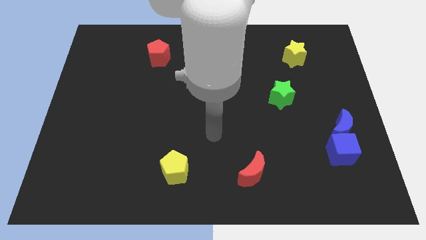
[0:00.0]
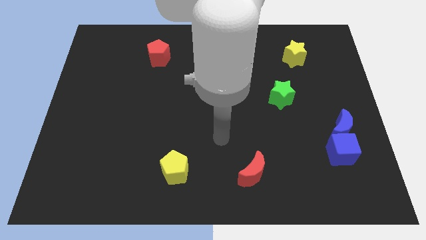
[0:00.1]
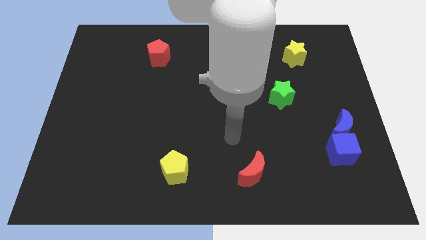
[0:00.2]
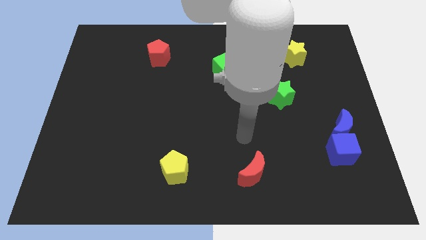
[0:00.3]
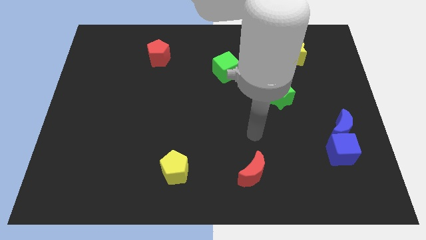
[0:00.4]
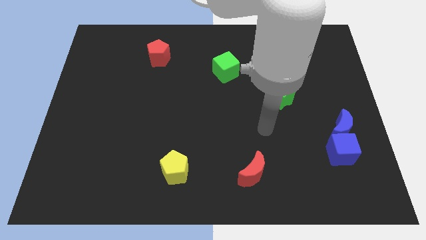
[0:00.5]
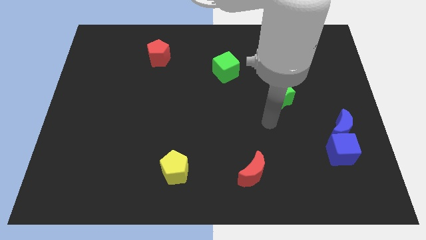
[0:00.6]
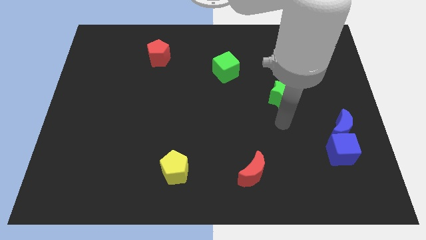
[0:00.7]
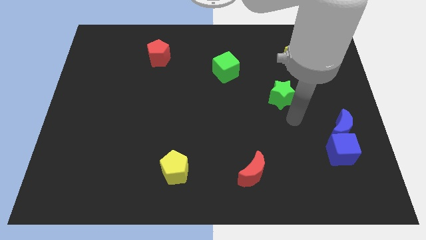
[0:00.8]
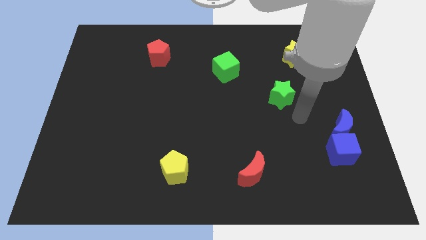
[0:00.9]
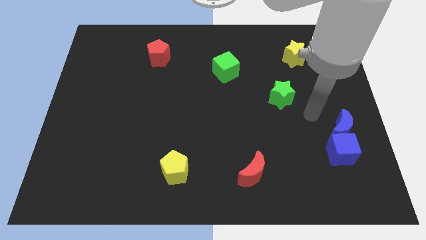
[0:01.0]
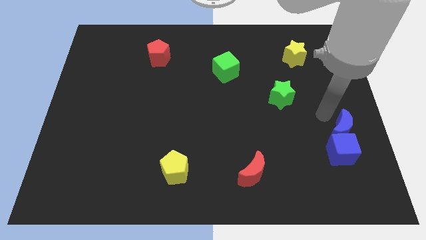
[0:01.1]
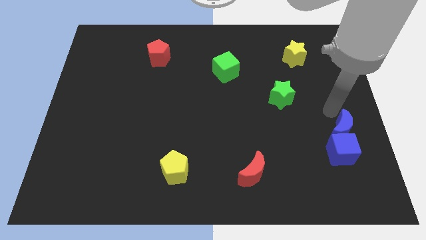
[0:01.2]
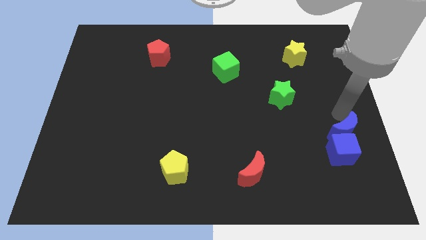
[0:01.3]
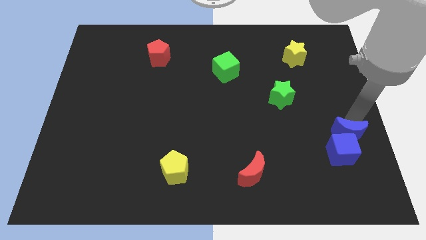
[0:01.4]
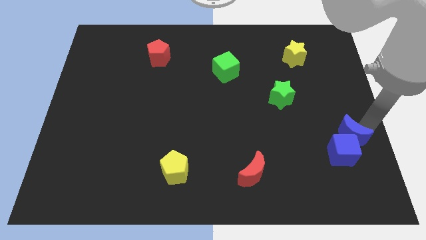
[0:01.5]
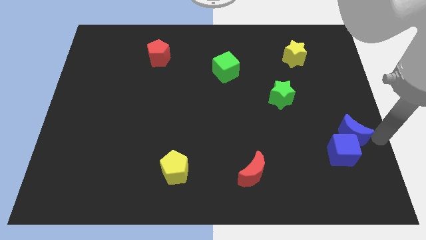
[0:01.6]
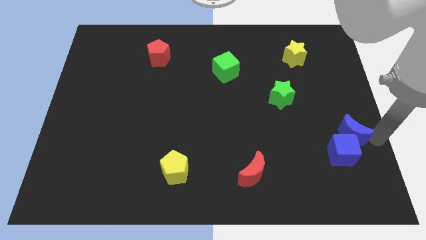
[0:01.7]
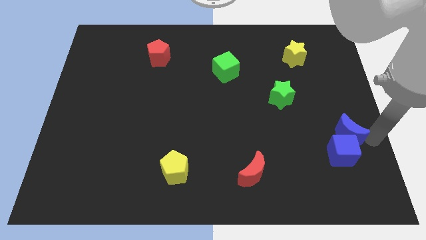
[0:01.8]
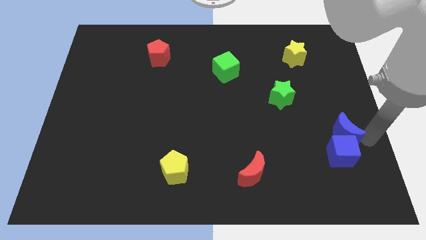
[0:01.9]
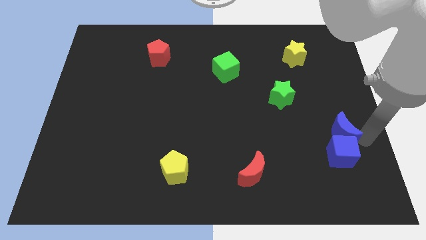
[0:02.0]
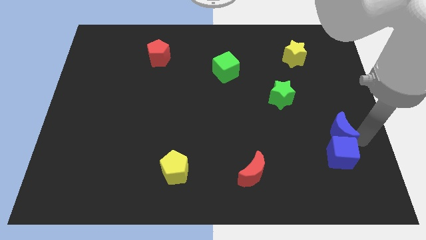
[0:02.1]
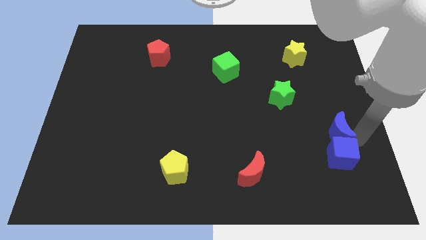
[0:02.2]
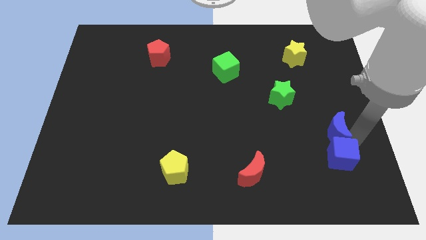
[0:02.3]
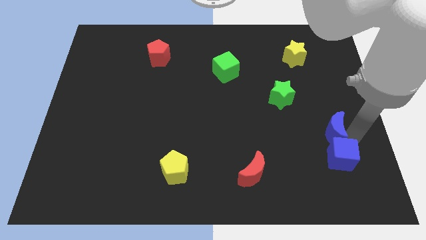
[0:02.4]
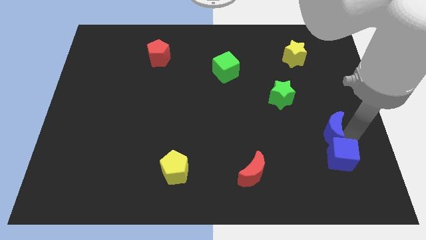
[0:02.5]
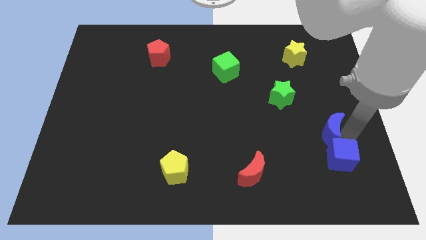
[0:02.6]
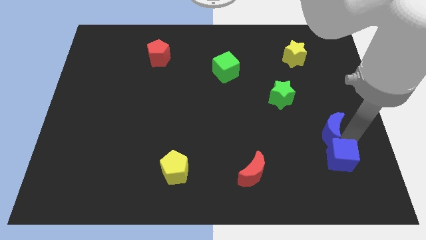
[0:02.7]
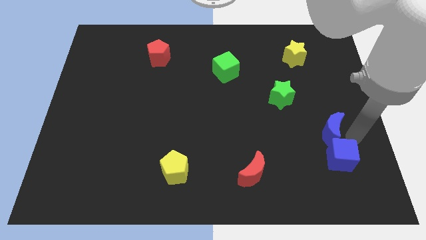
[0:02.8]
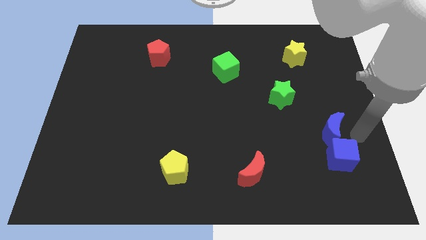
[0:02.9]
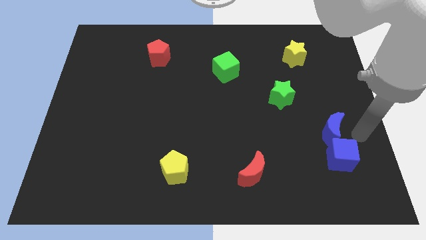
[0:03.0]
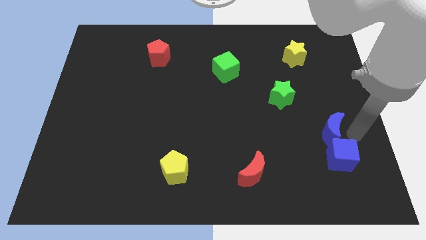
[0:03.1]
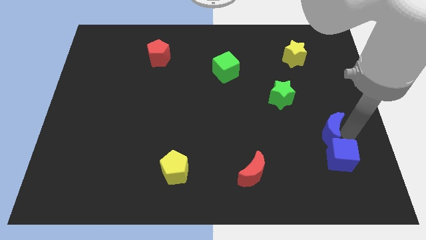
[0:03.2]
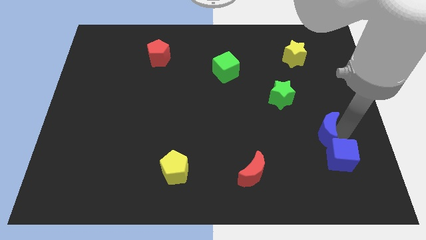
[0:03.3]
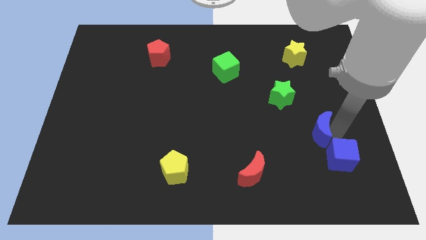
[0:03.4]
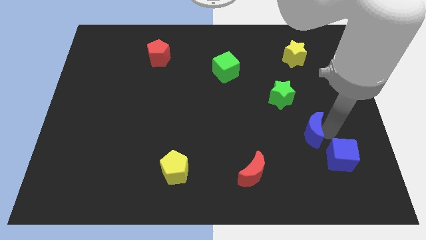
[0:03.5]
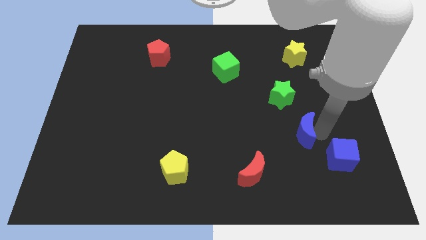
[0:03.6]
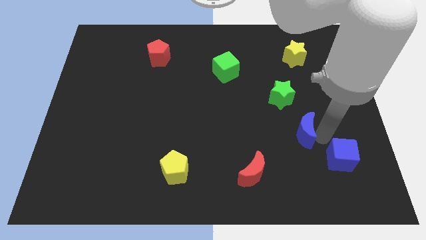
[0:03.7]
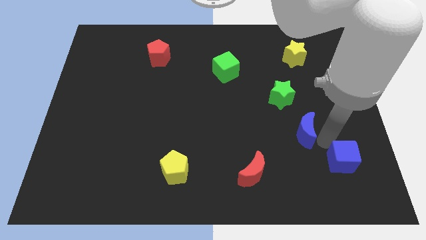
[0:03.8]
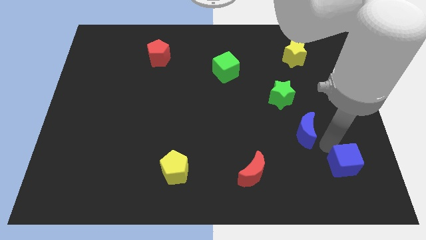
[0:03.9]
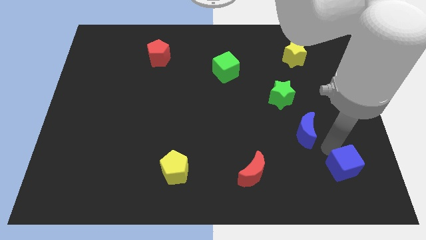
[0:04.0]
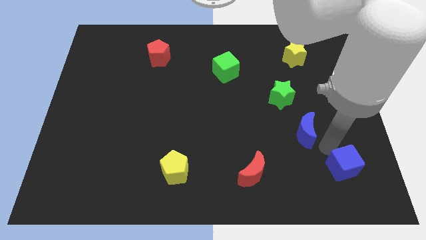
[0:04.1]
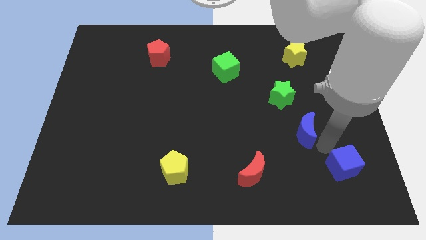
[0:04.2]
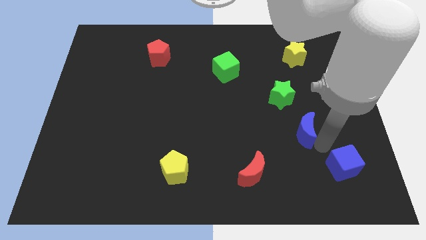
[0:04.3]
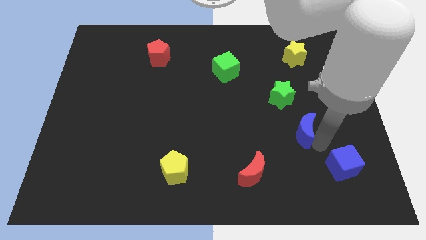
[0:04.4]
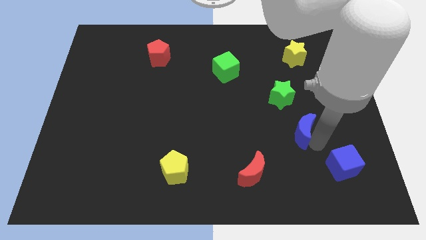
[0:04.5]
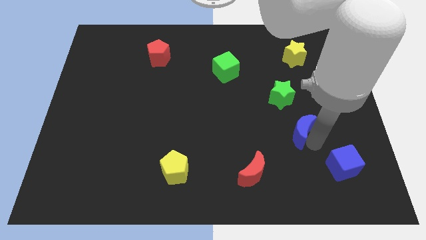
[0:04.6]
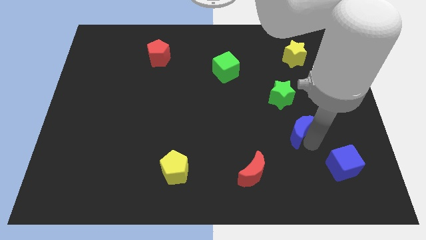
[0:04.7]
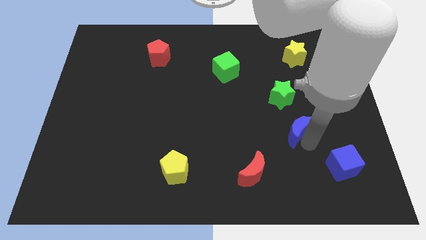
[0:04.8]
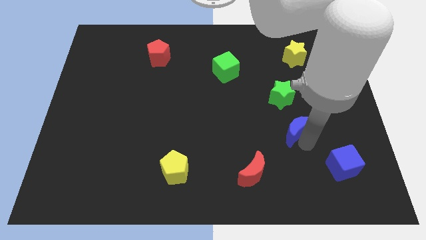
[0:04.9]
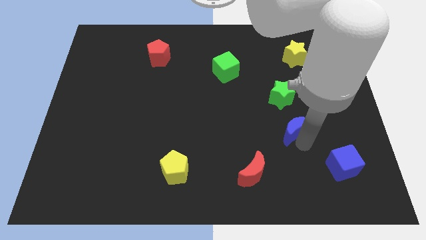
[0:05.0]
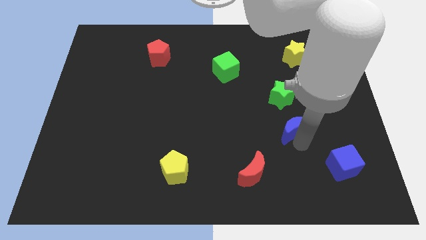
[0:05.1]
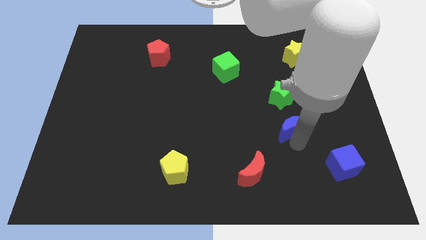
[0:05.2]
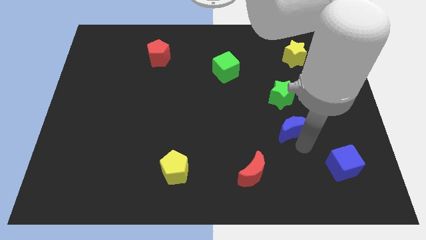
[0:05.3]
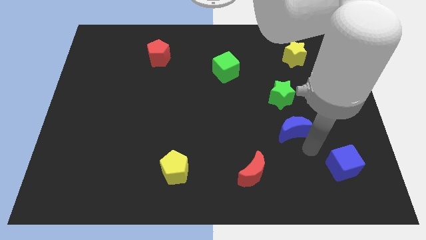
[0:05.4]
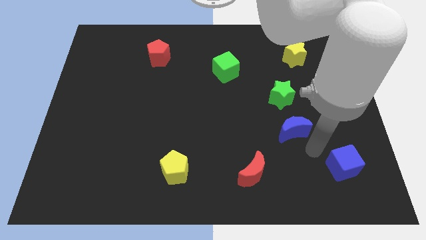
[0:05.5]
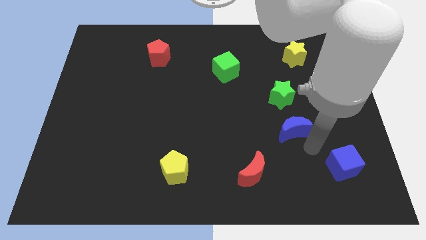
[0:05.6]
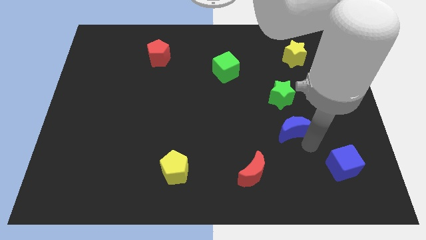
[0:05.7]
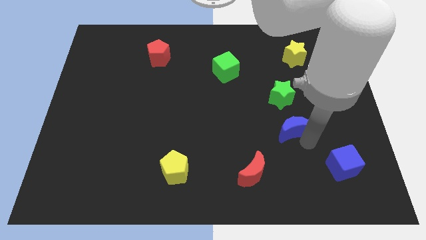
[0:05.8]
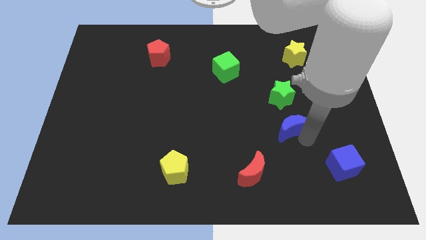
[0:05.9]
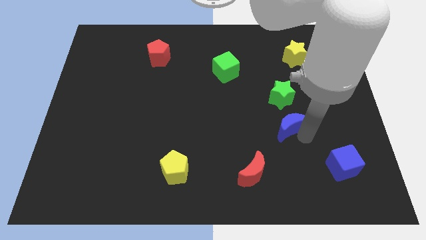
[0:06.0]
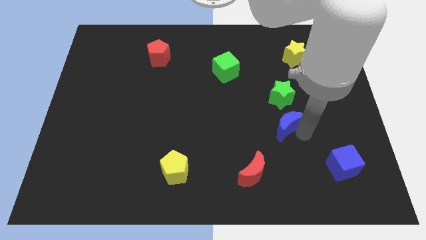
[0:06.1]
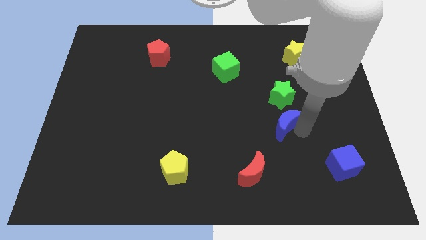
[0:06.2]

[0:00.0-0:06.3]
push the blue moon diagonally upwards and to the left somewhat

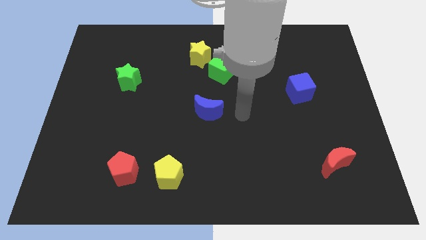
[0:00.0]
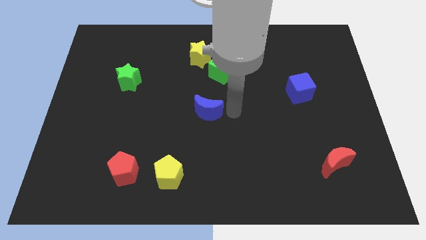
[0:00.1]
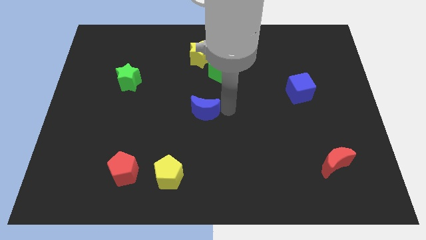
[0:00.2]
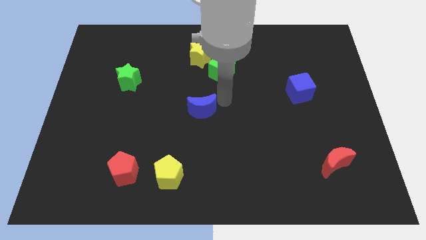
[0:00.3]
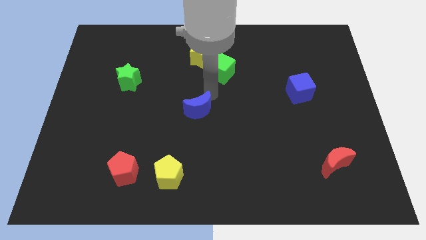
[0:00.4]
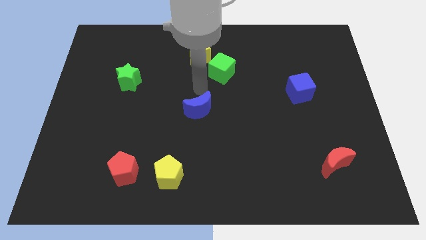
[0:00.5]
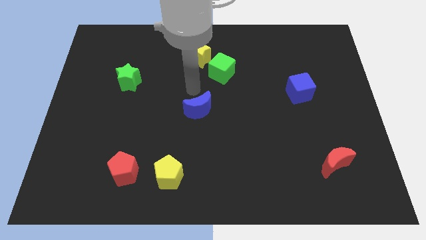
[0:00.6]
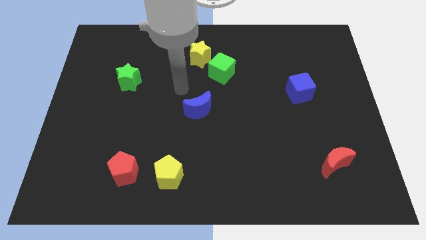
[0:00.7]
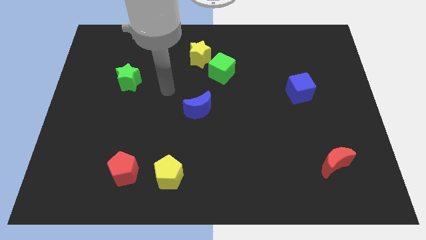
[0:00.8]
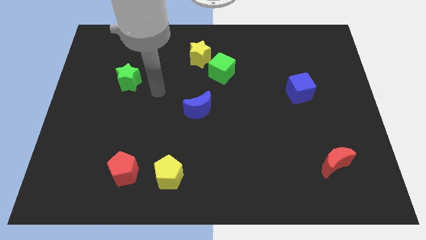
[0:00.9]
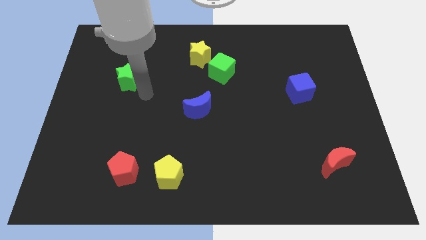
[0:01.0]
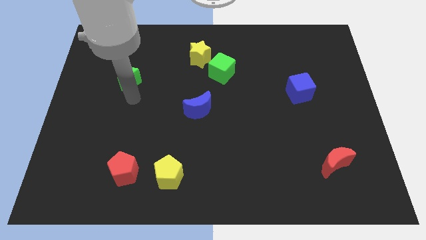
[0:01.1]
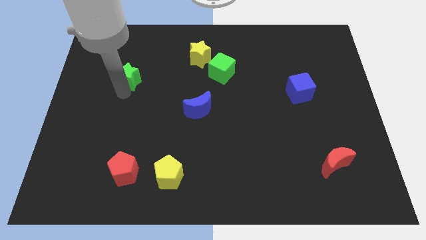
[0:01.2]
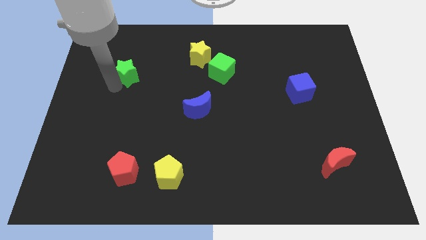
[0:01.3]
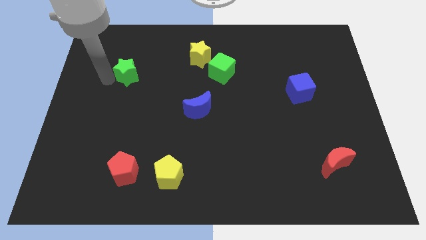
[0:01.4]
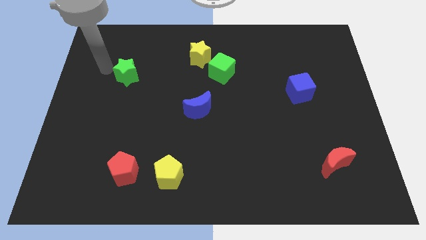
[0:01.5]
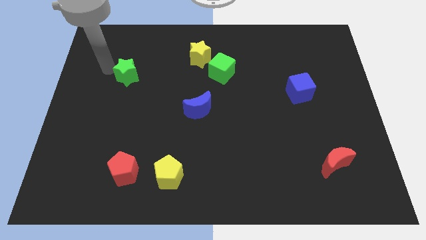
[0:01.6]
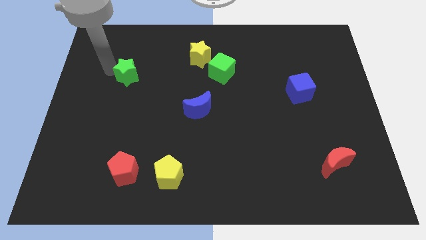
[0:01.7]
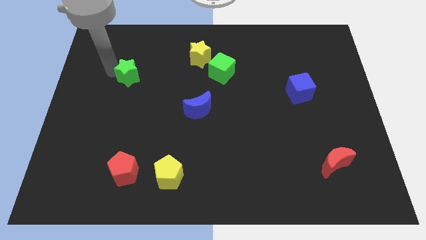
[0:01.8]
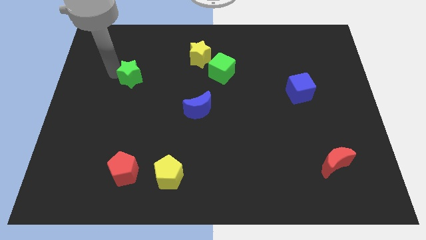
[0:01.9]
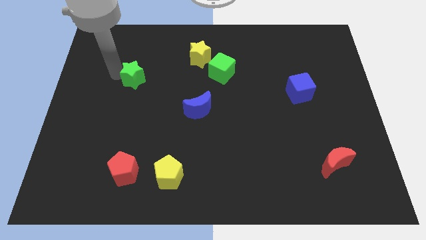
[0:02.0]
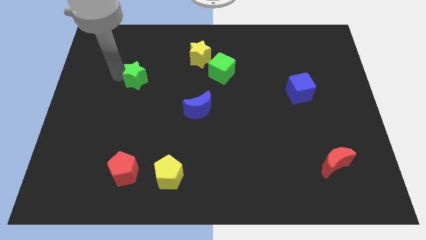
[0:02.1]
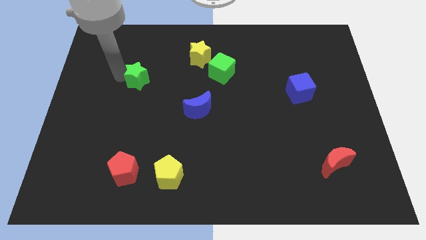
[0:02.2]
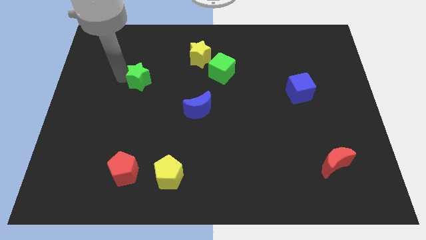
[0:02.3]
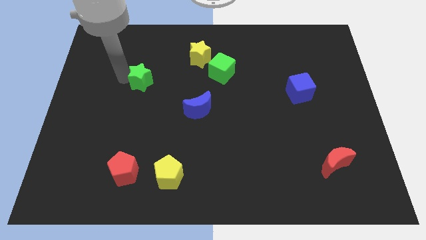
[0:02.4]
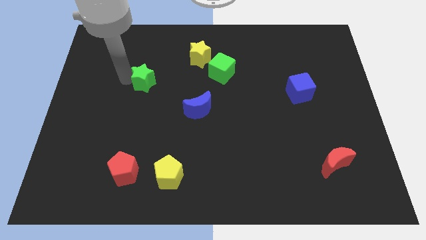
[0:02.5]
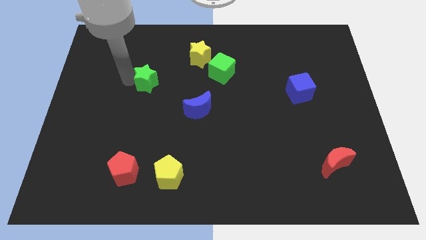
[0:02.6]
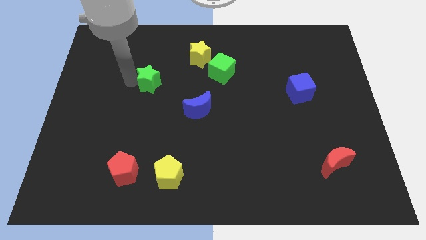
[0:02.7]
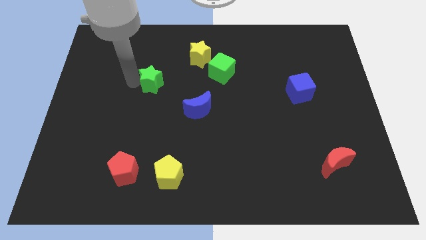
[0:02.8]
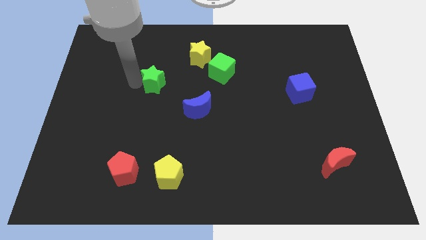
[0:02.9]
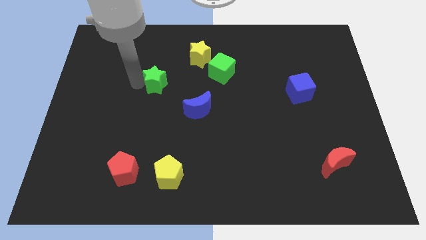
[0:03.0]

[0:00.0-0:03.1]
push the green star to the right a little bit
